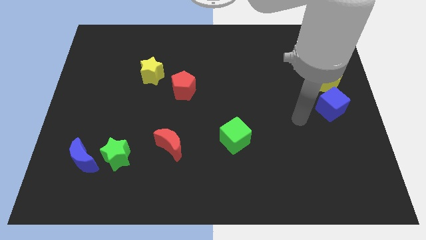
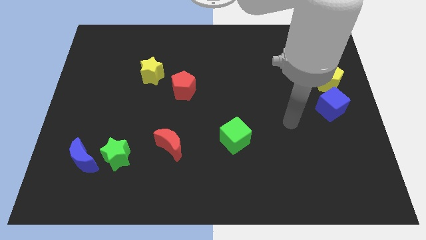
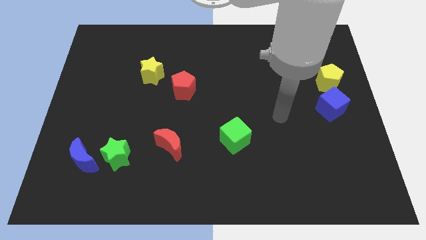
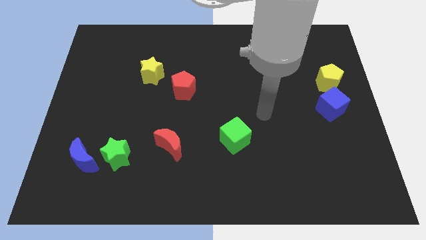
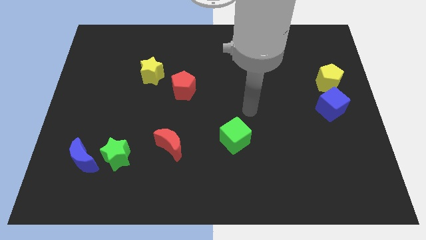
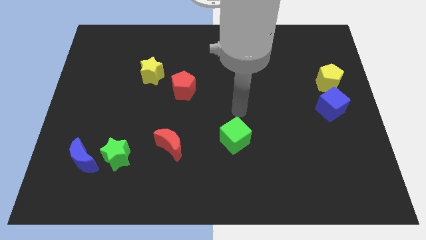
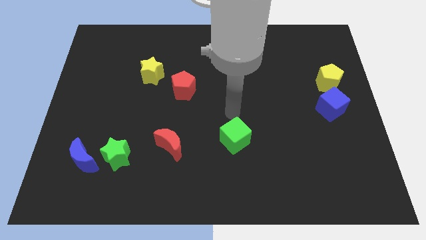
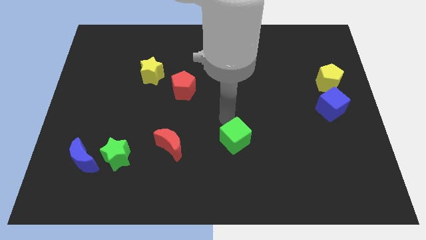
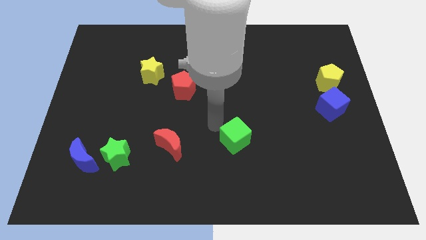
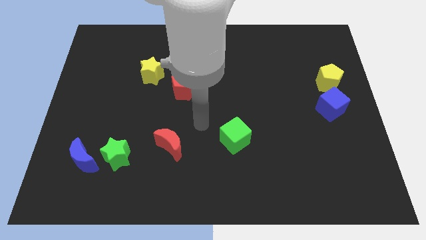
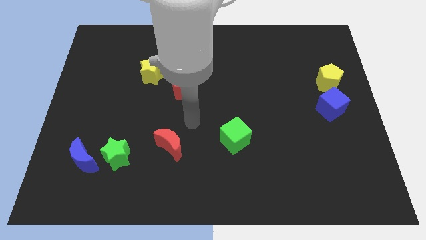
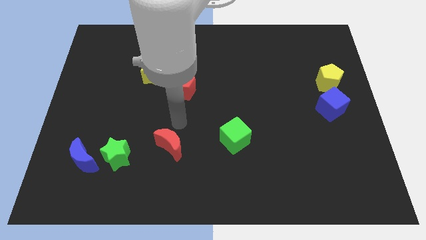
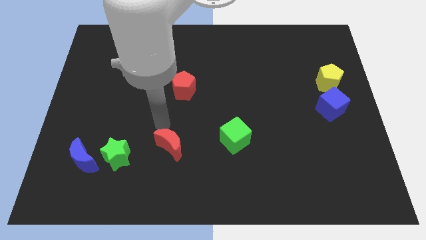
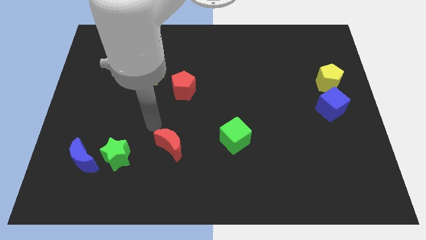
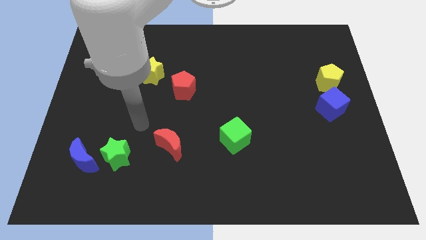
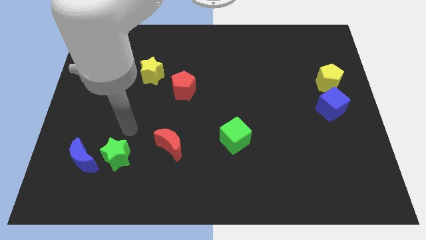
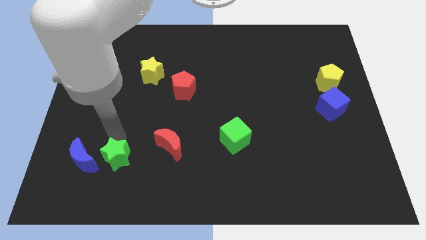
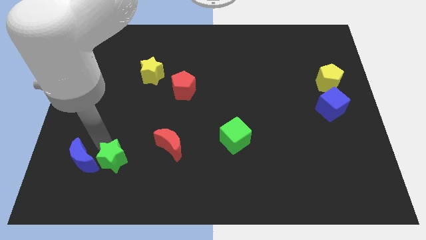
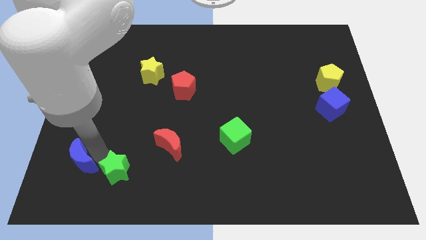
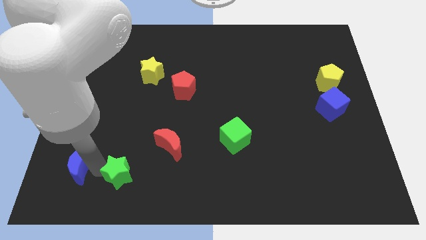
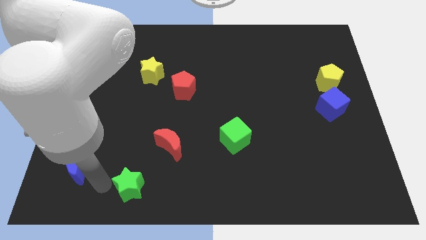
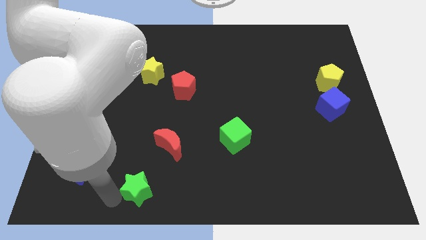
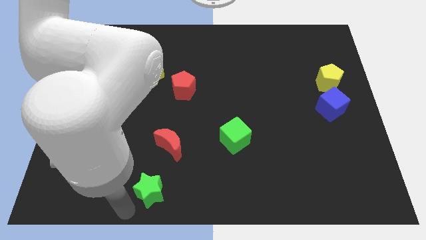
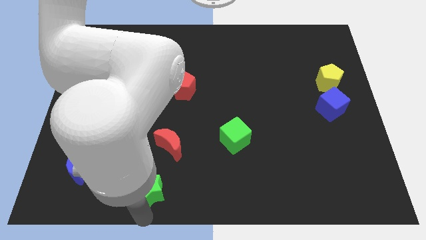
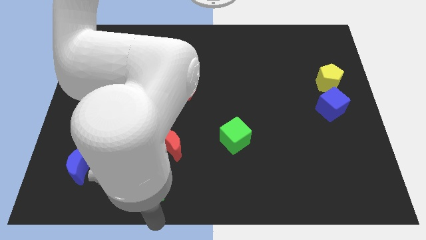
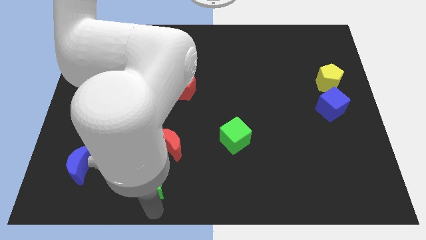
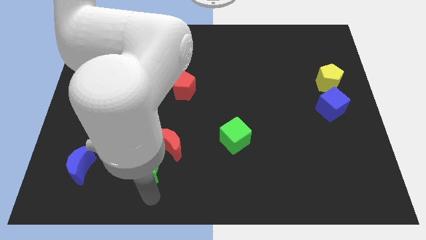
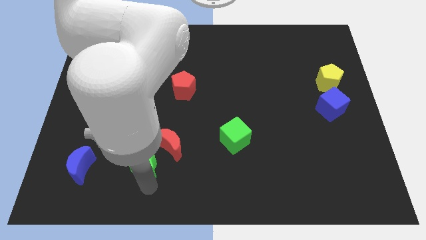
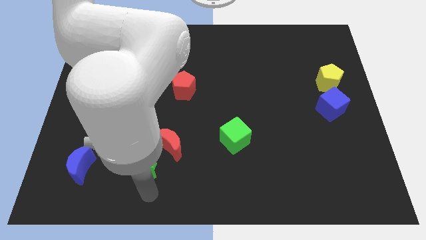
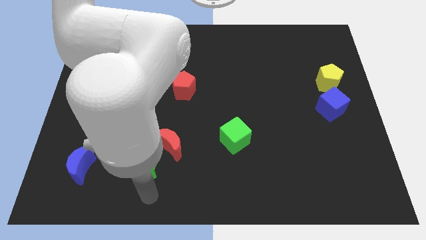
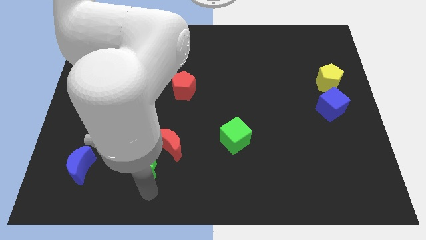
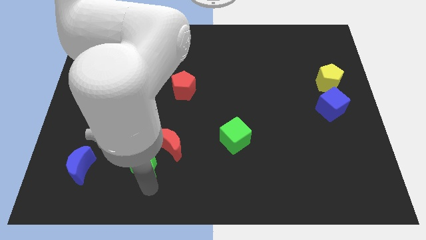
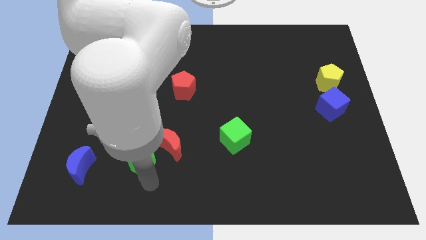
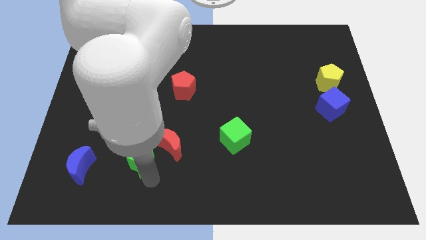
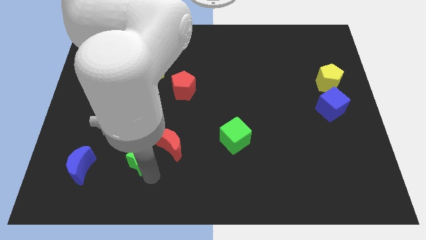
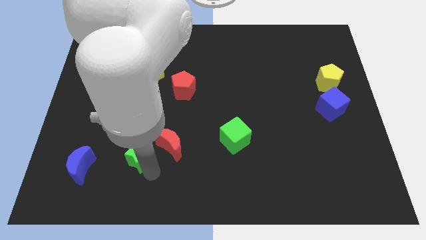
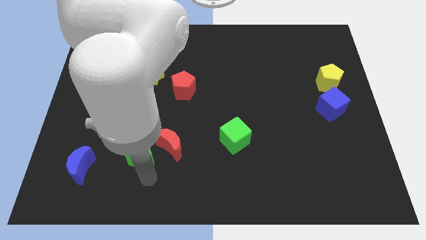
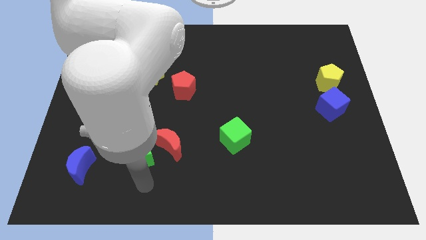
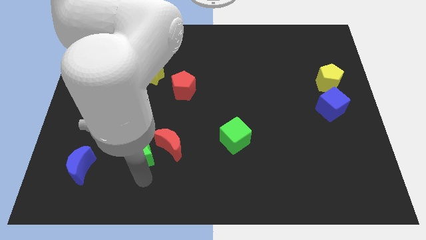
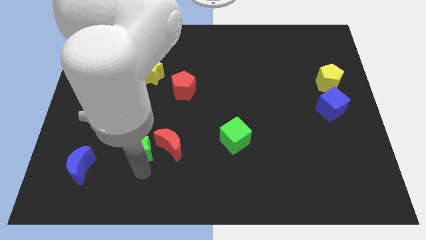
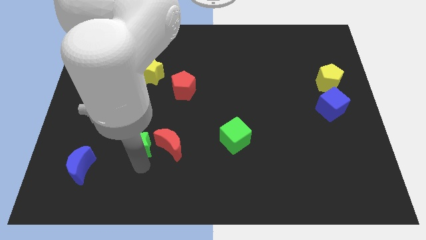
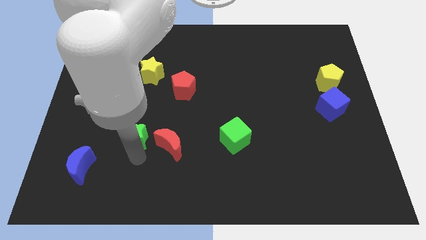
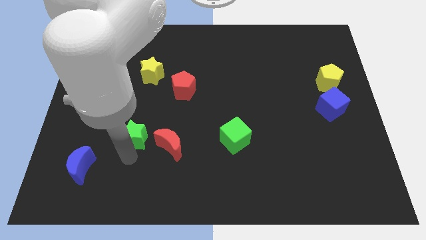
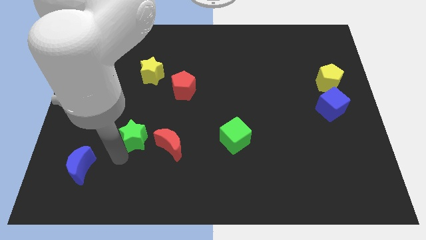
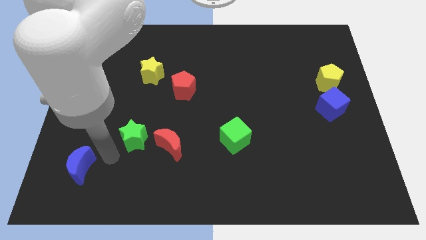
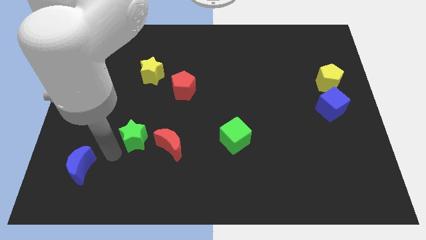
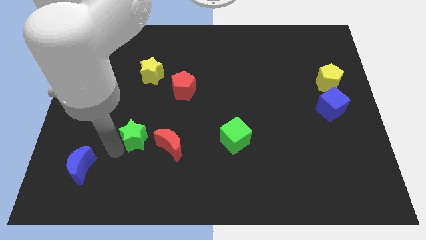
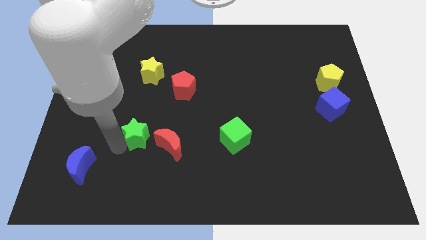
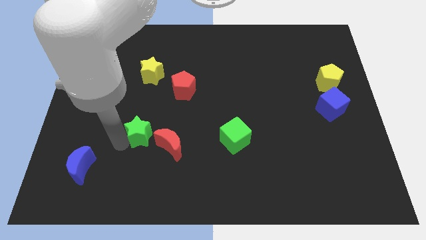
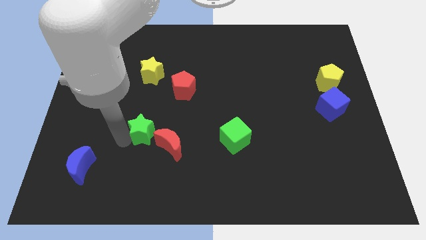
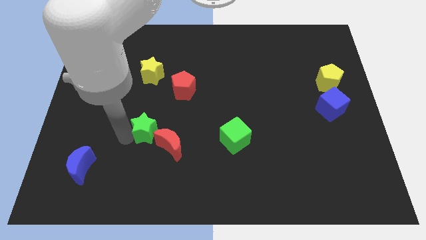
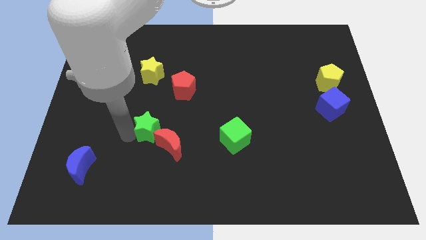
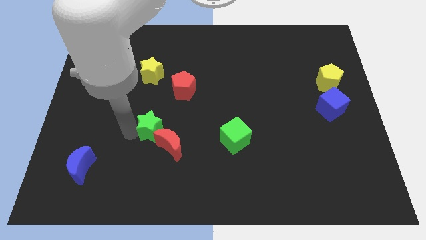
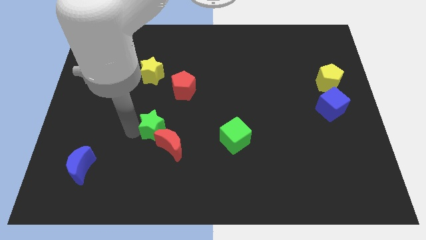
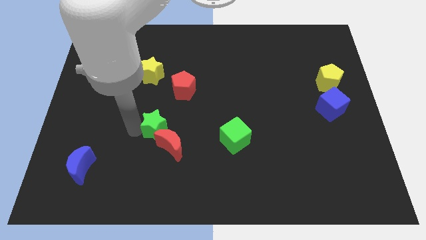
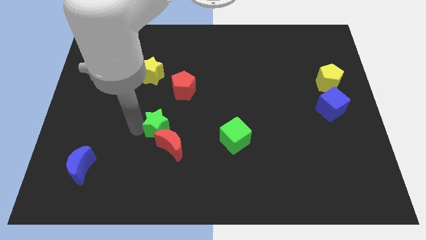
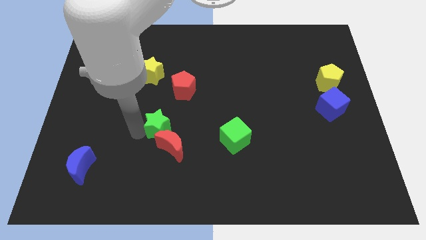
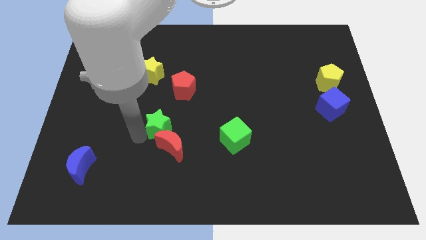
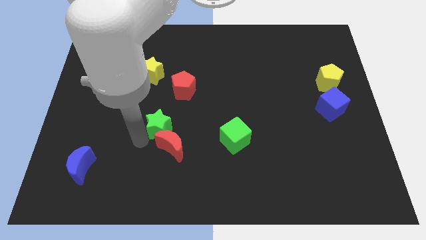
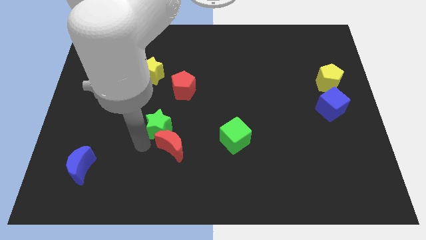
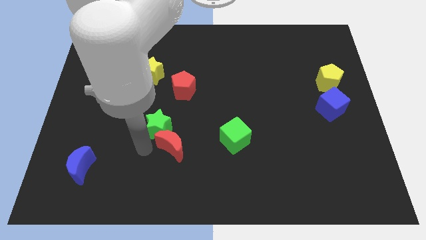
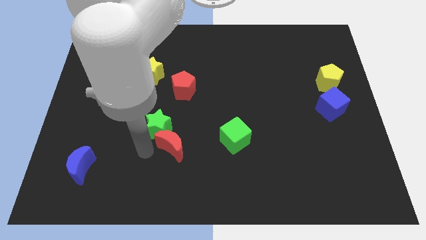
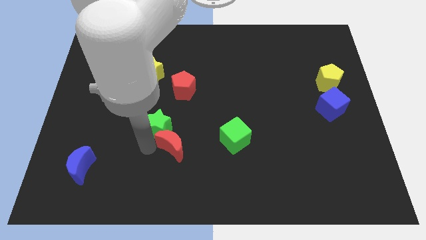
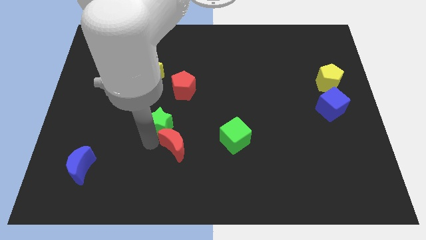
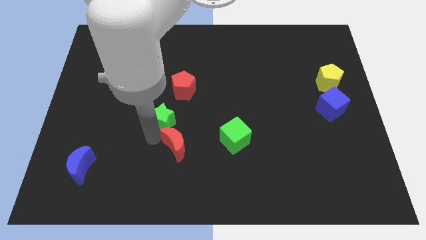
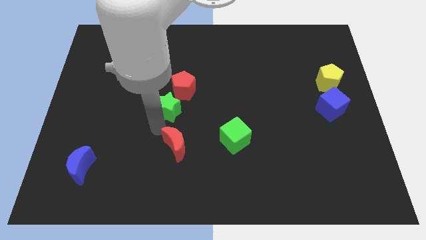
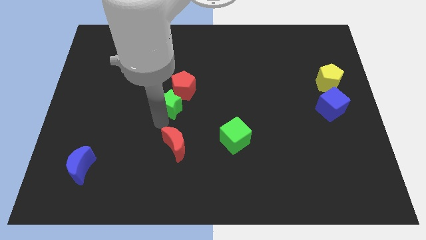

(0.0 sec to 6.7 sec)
move the green star towards the red pentagon

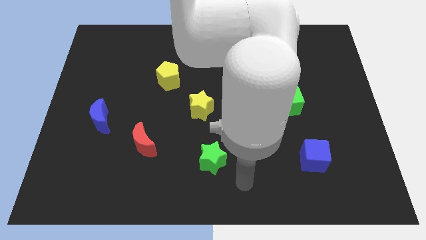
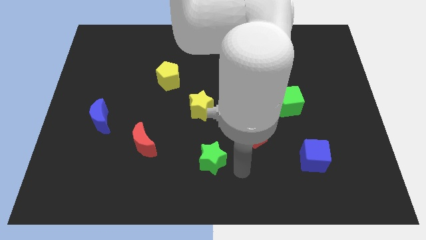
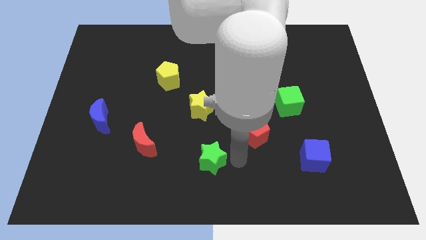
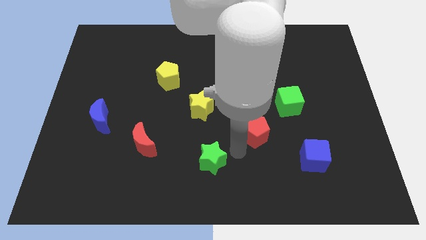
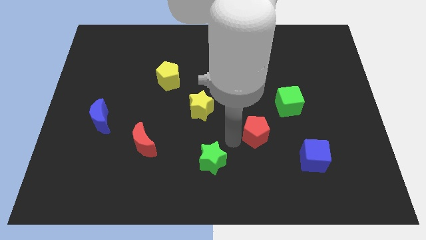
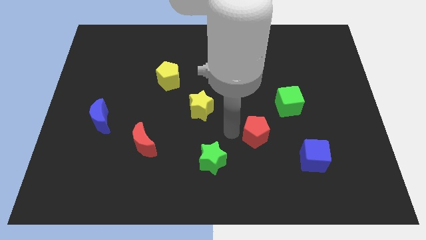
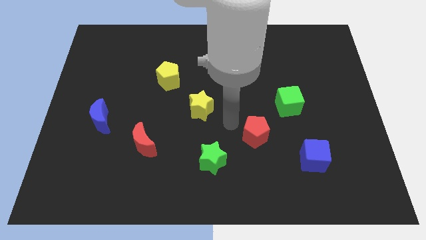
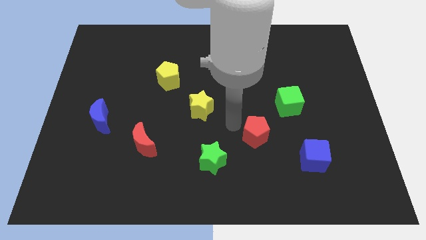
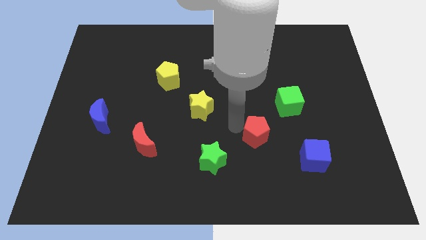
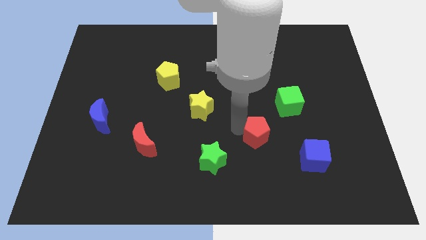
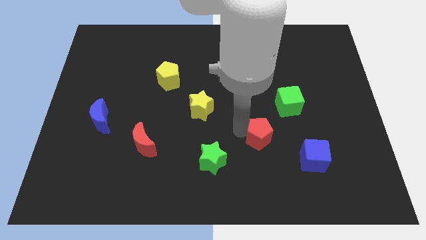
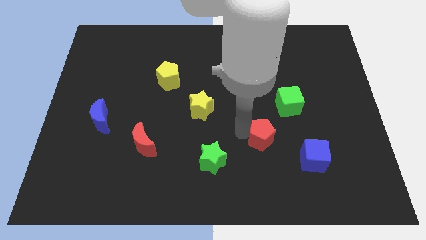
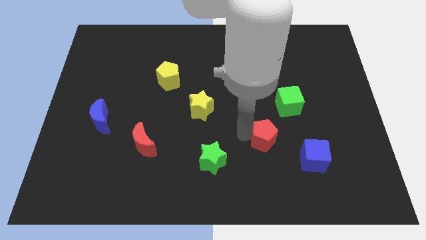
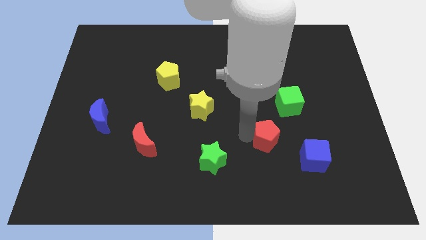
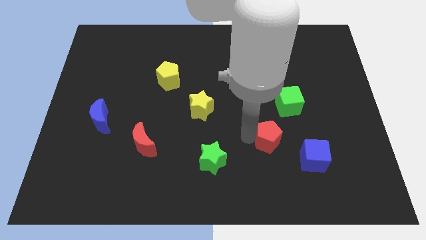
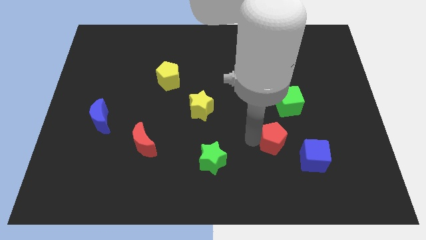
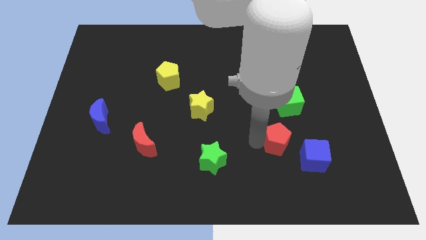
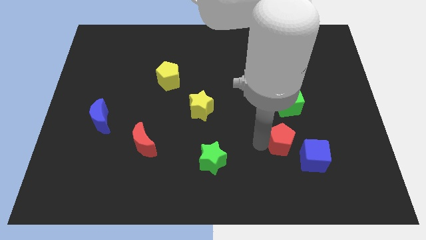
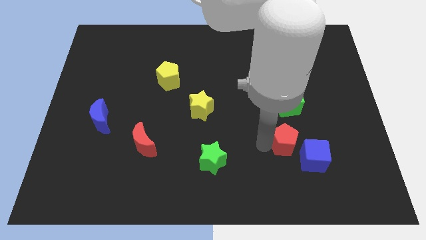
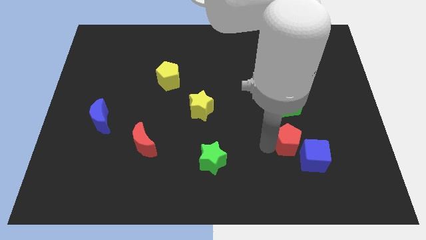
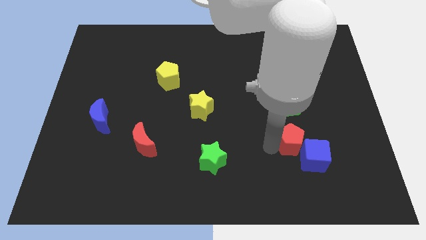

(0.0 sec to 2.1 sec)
put the red pentagon towards the blue cube
